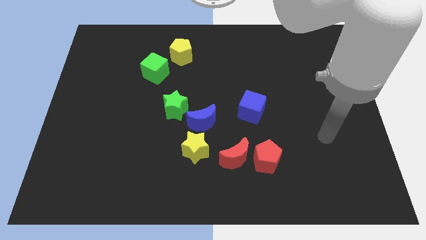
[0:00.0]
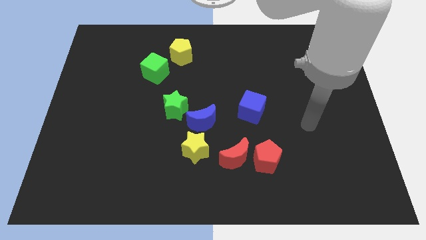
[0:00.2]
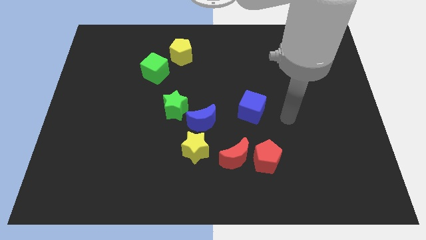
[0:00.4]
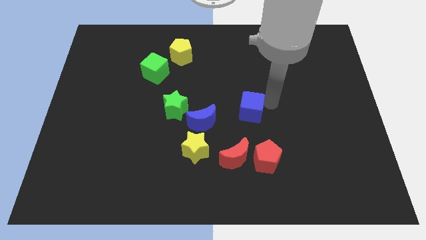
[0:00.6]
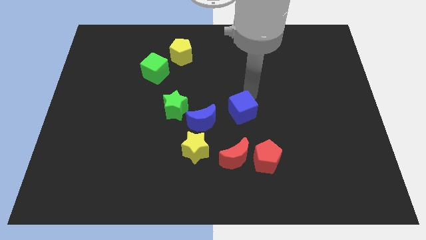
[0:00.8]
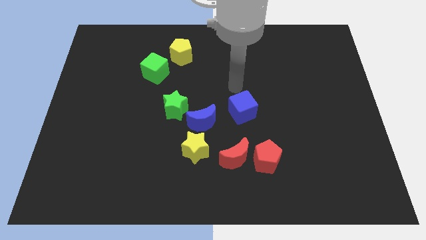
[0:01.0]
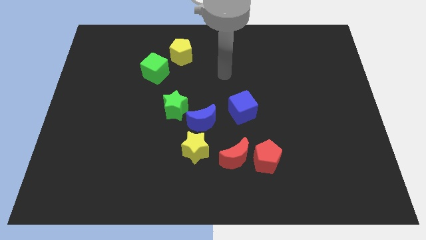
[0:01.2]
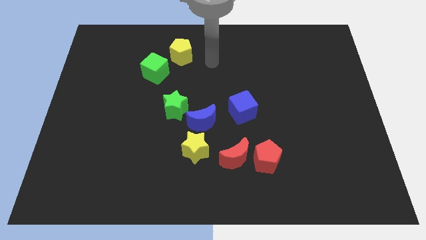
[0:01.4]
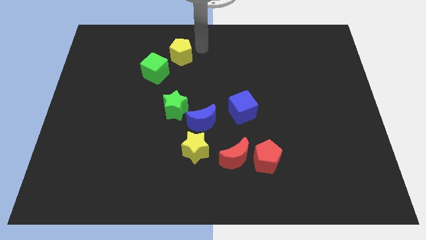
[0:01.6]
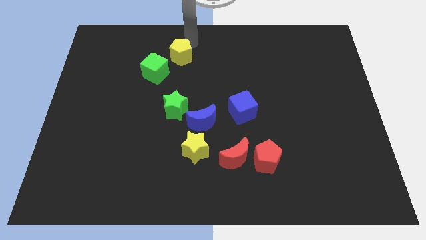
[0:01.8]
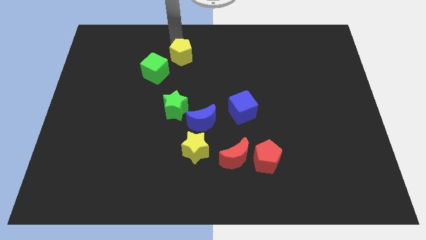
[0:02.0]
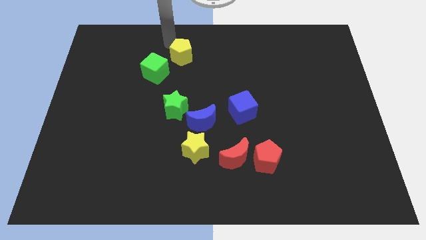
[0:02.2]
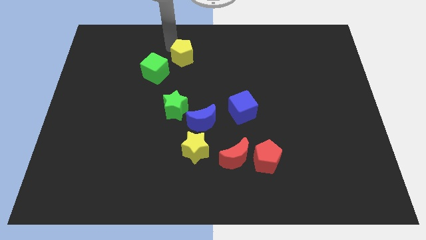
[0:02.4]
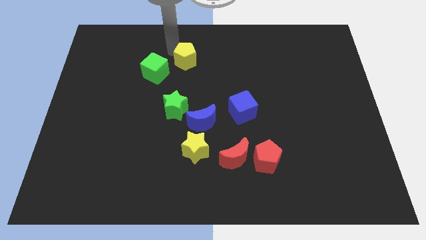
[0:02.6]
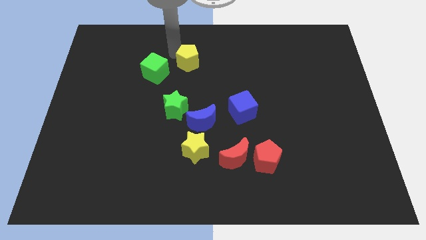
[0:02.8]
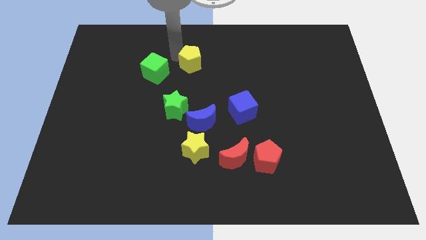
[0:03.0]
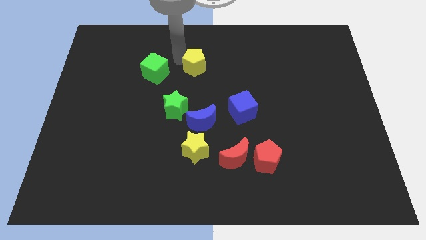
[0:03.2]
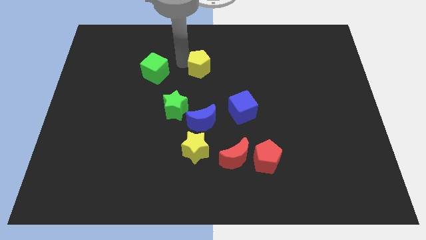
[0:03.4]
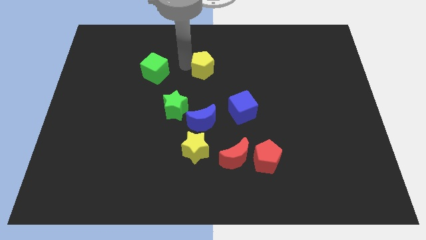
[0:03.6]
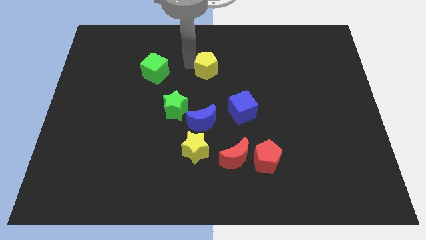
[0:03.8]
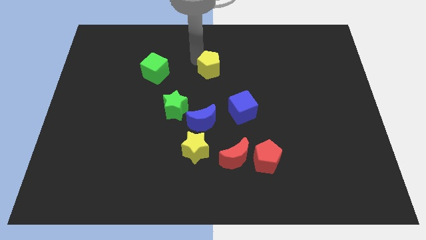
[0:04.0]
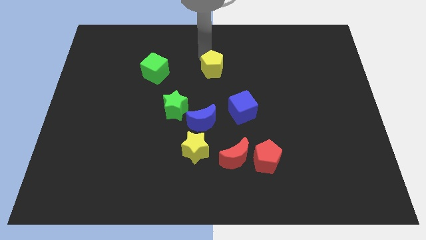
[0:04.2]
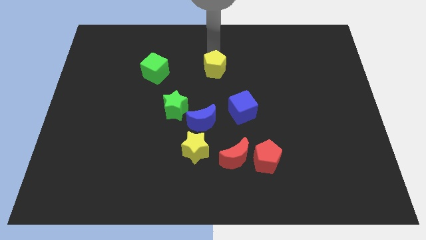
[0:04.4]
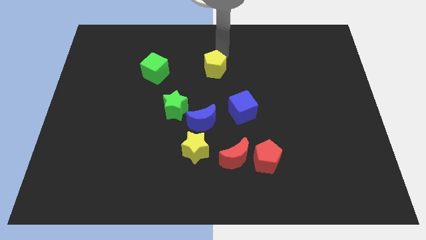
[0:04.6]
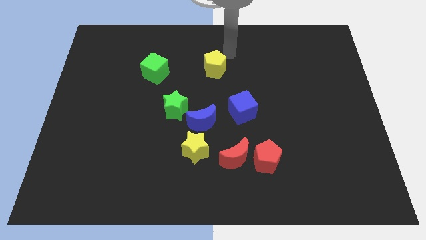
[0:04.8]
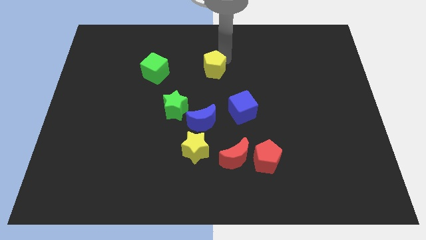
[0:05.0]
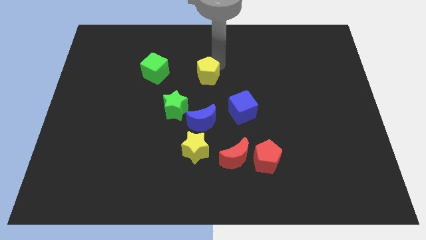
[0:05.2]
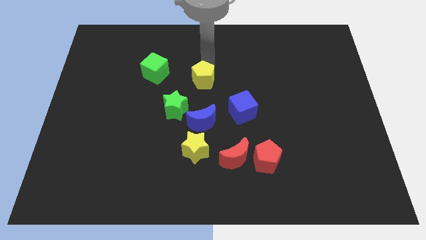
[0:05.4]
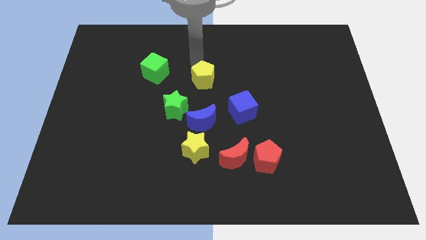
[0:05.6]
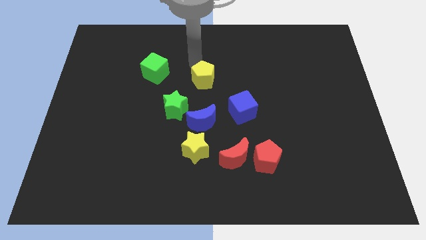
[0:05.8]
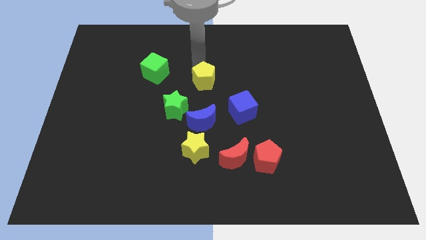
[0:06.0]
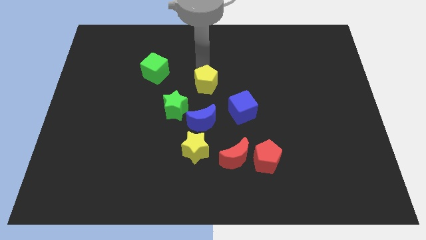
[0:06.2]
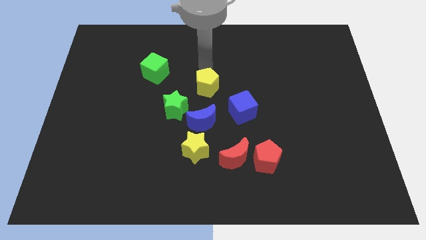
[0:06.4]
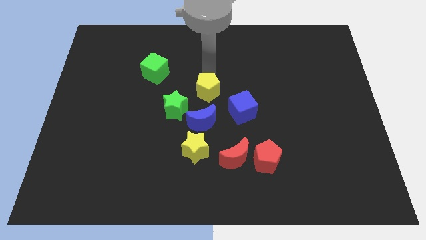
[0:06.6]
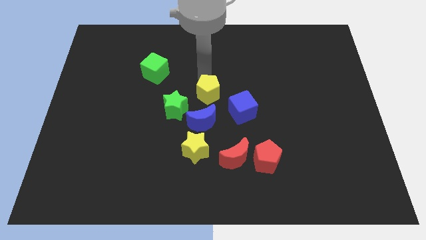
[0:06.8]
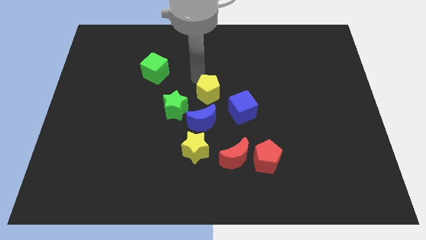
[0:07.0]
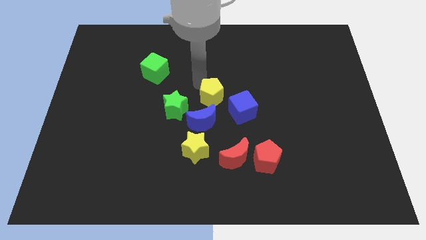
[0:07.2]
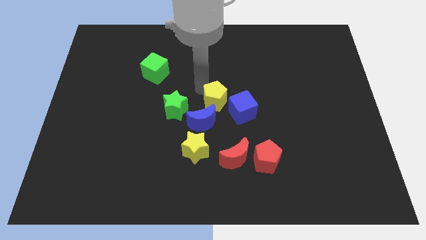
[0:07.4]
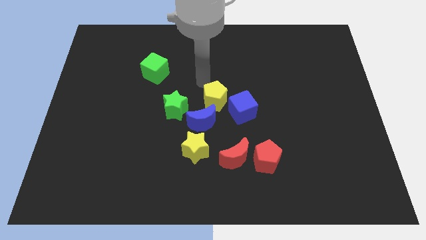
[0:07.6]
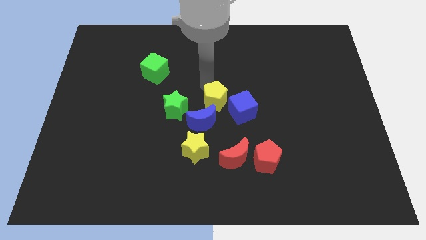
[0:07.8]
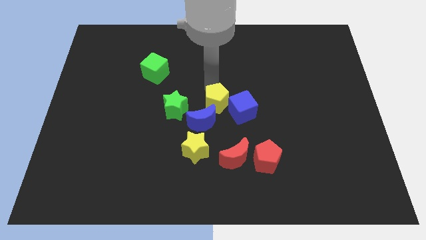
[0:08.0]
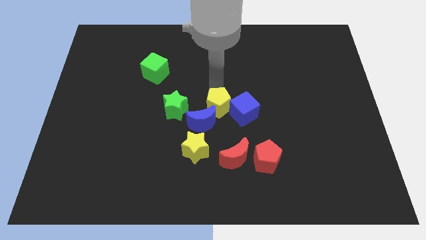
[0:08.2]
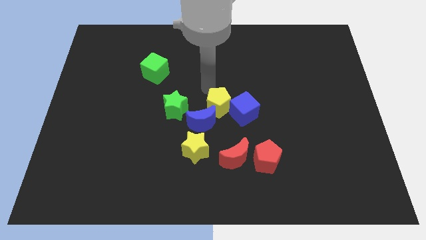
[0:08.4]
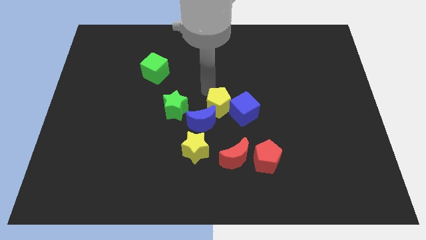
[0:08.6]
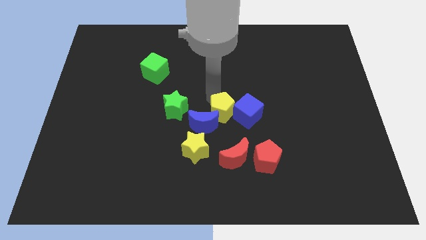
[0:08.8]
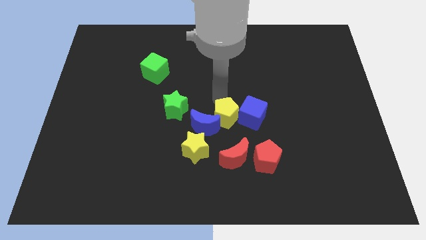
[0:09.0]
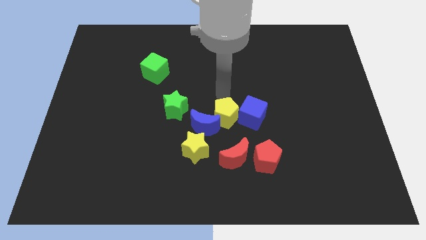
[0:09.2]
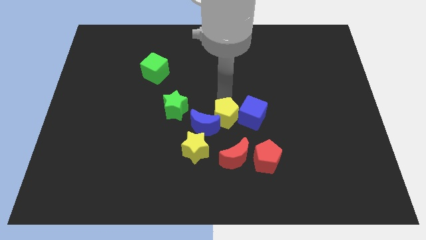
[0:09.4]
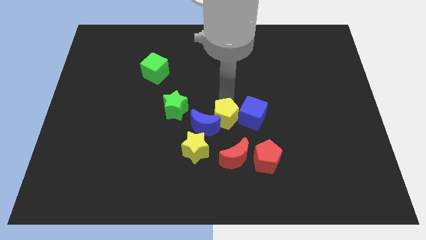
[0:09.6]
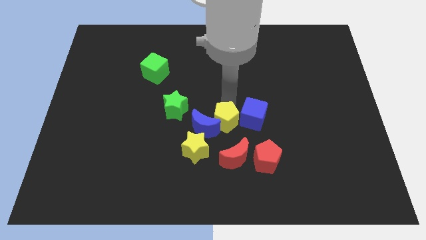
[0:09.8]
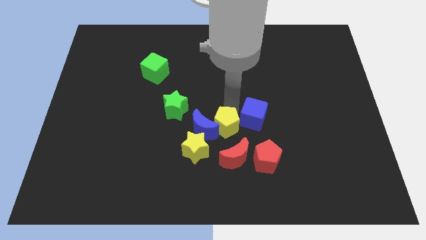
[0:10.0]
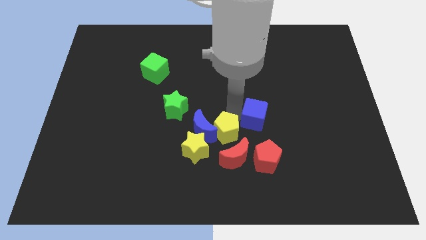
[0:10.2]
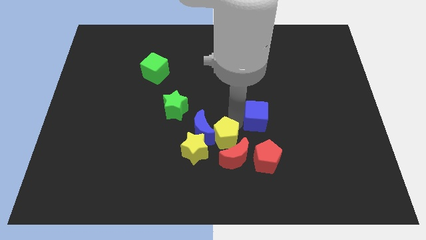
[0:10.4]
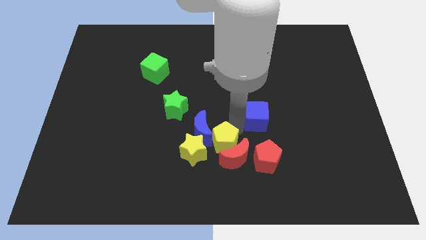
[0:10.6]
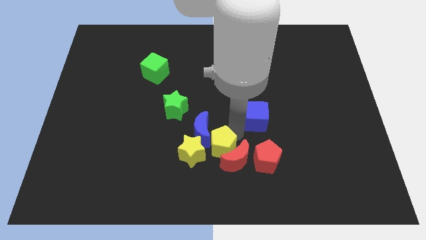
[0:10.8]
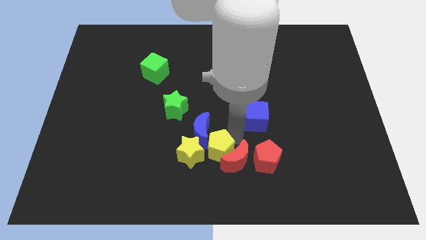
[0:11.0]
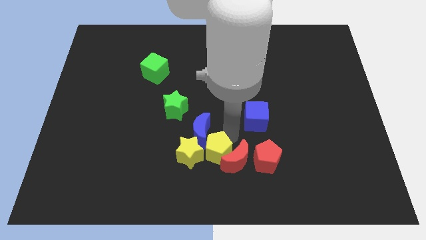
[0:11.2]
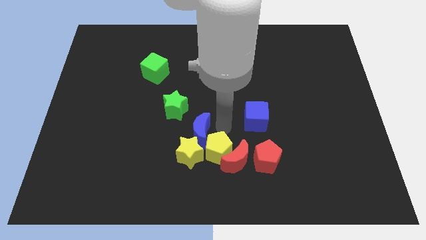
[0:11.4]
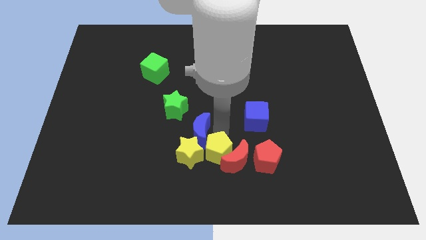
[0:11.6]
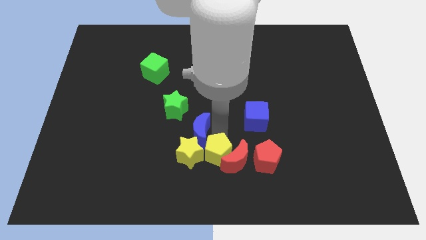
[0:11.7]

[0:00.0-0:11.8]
slide the yellow pentagon to the bottom side
